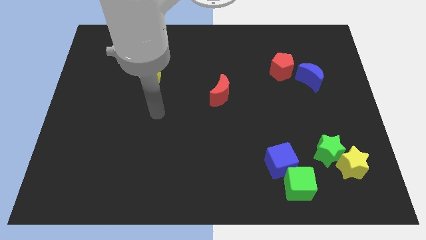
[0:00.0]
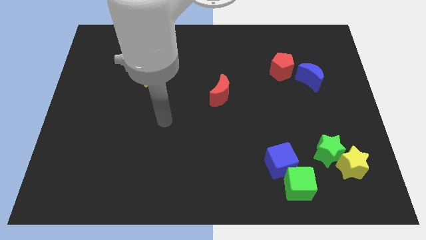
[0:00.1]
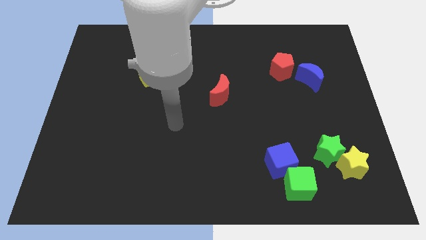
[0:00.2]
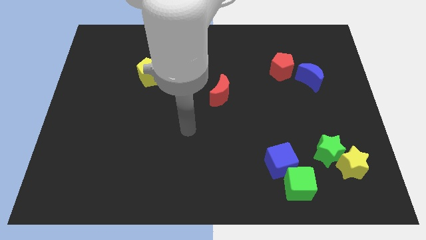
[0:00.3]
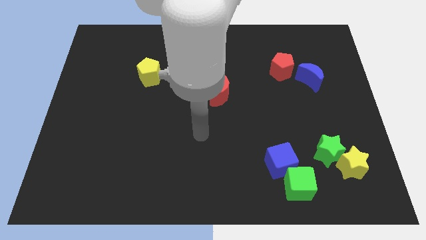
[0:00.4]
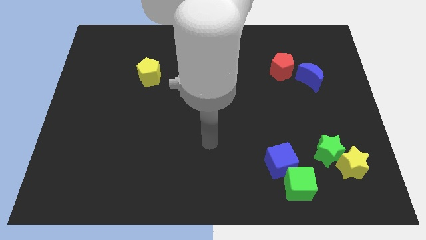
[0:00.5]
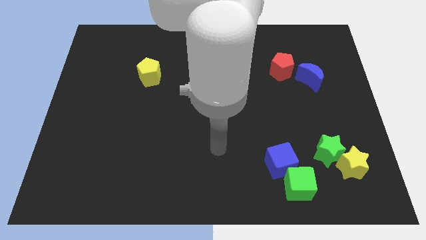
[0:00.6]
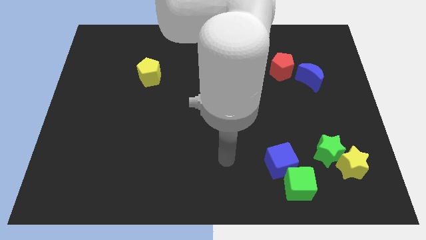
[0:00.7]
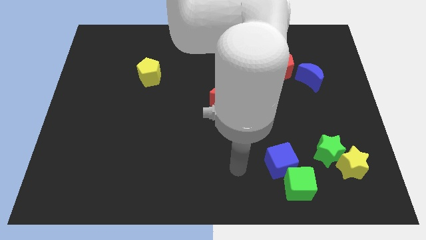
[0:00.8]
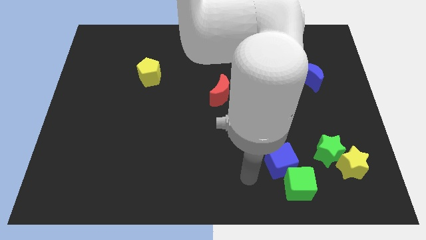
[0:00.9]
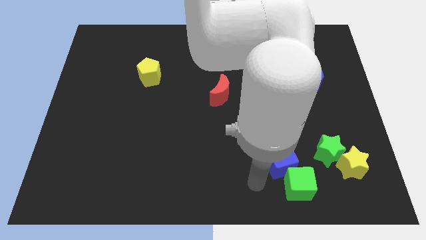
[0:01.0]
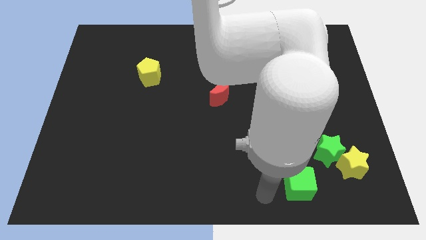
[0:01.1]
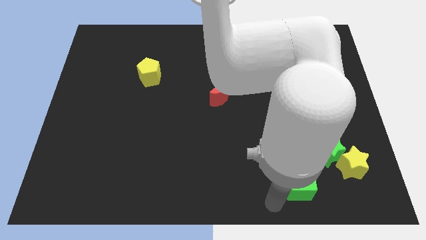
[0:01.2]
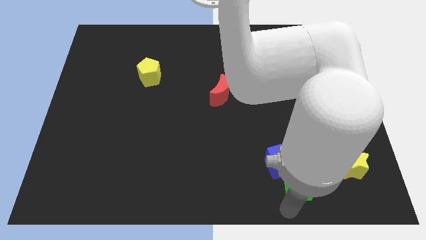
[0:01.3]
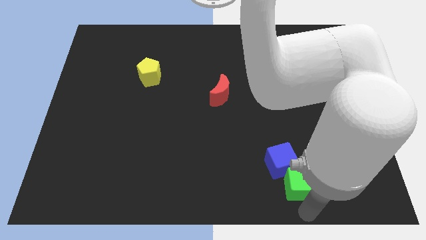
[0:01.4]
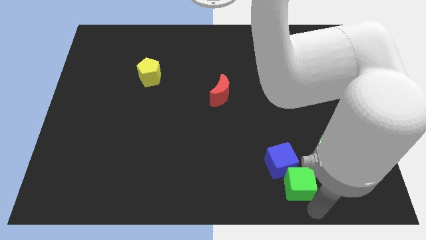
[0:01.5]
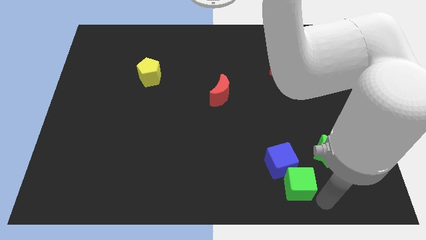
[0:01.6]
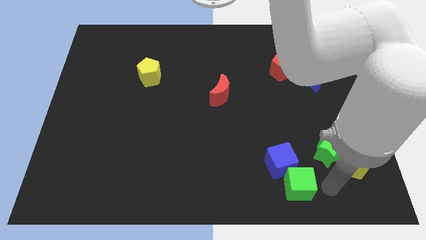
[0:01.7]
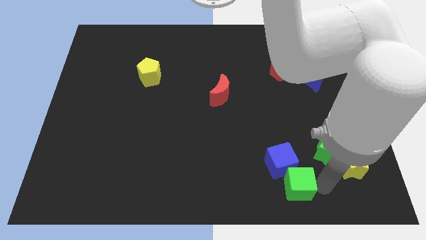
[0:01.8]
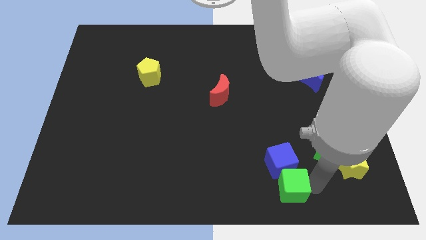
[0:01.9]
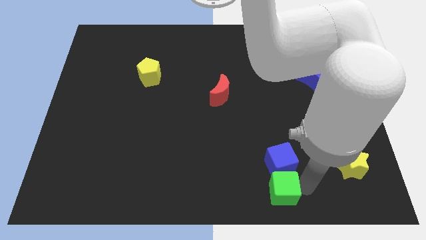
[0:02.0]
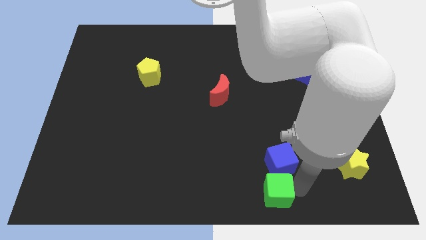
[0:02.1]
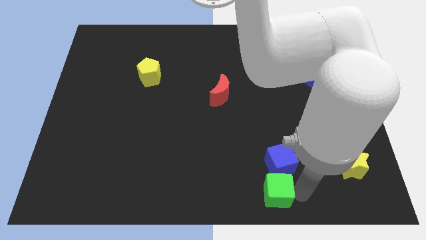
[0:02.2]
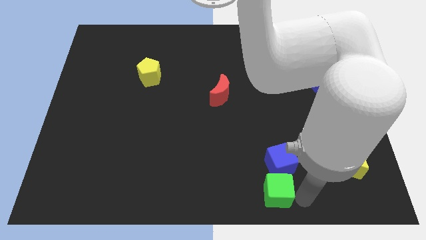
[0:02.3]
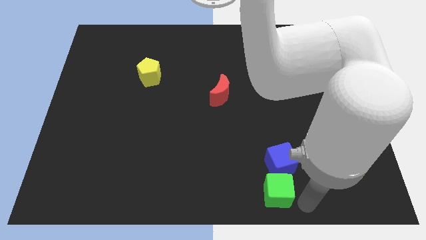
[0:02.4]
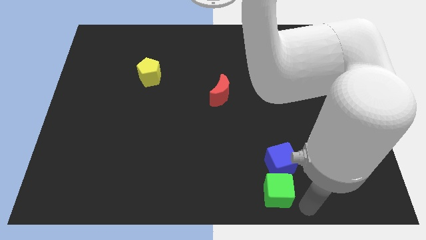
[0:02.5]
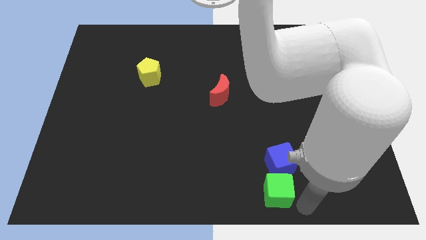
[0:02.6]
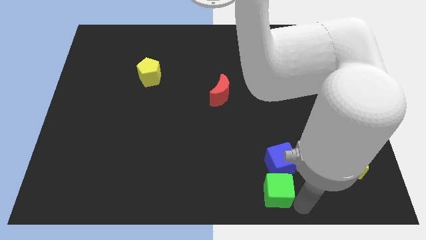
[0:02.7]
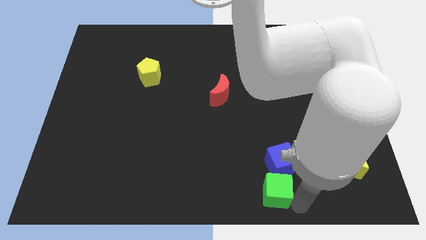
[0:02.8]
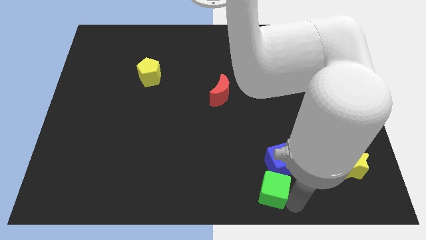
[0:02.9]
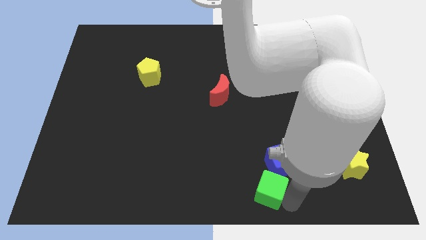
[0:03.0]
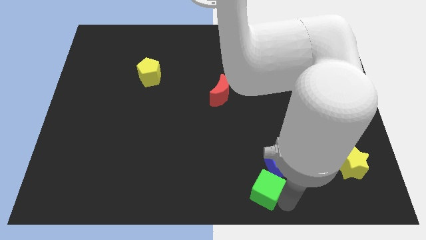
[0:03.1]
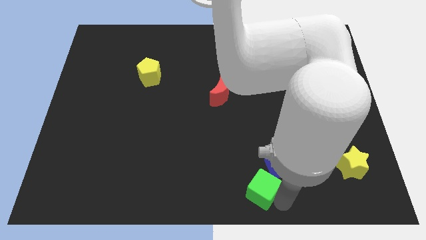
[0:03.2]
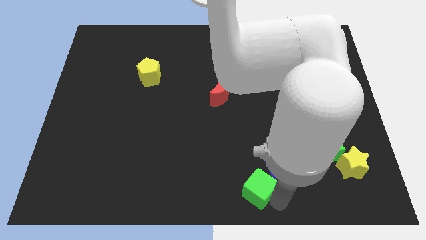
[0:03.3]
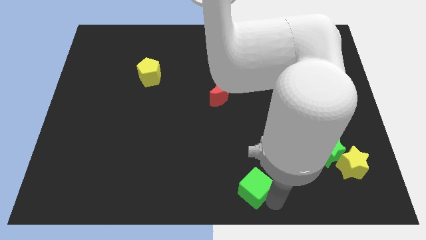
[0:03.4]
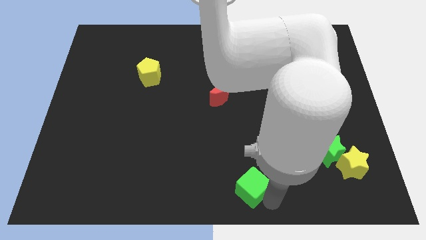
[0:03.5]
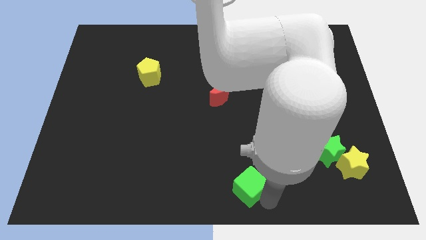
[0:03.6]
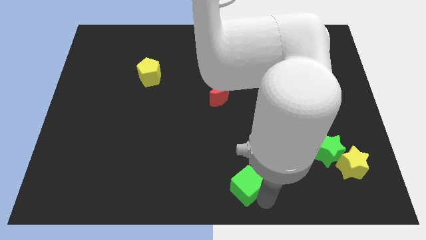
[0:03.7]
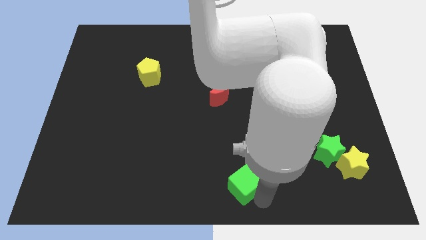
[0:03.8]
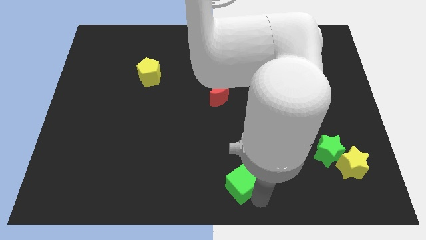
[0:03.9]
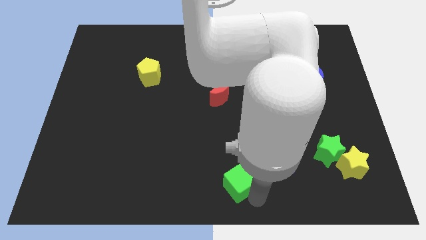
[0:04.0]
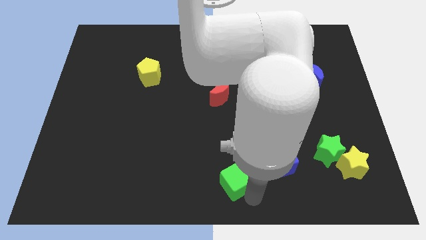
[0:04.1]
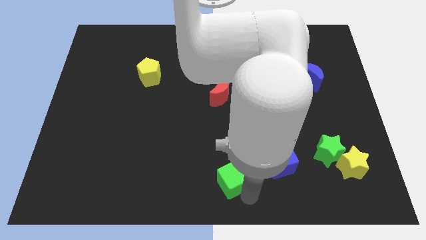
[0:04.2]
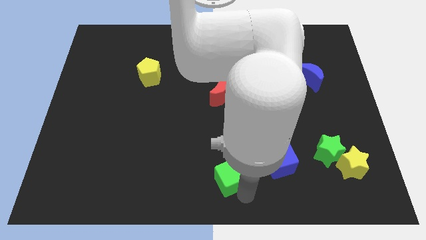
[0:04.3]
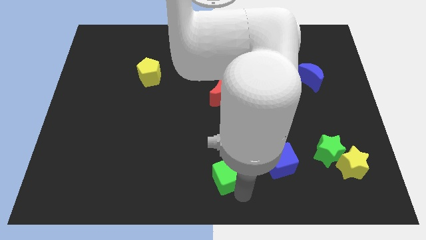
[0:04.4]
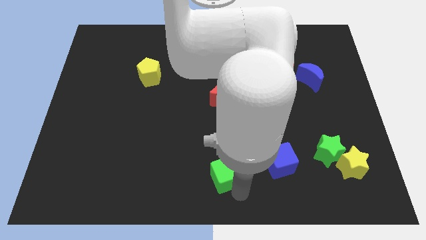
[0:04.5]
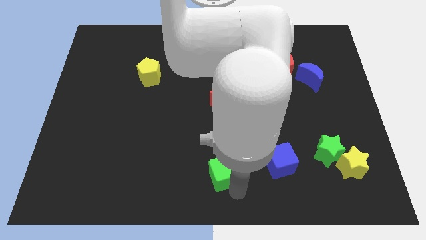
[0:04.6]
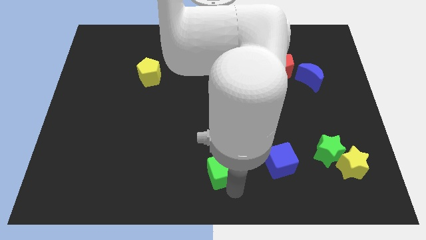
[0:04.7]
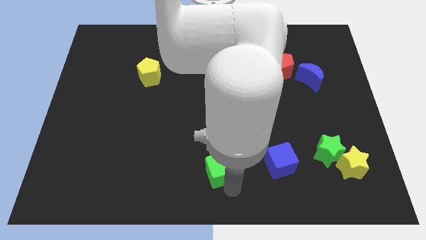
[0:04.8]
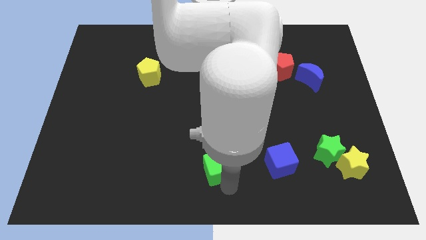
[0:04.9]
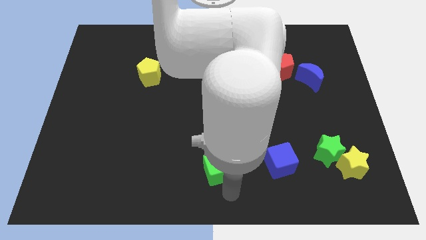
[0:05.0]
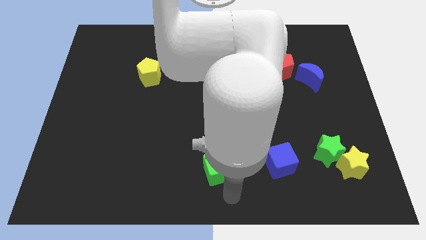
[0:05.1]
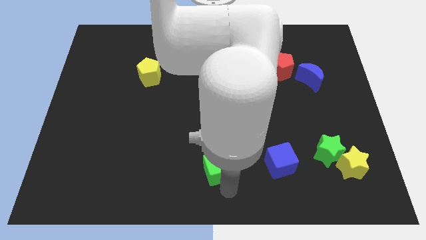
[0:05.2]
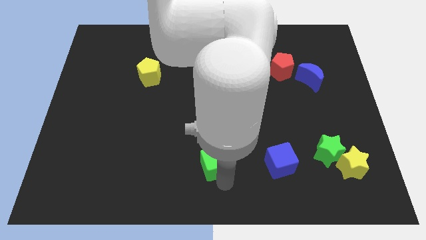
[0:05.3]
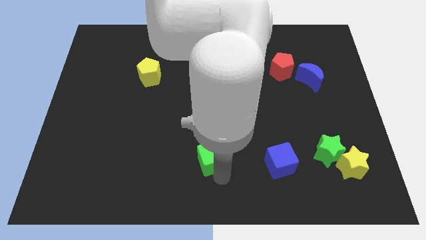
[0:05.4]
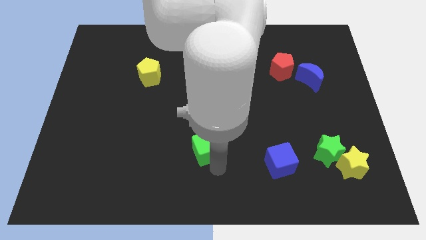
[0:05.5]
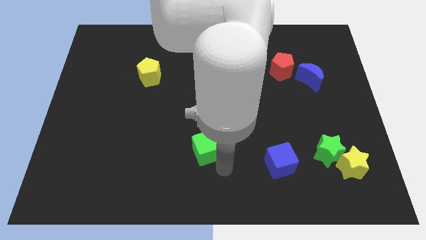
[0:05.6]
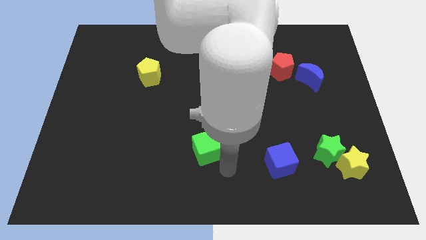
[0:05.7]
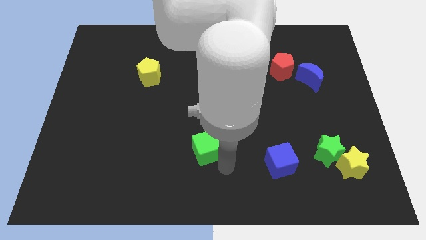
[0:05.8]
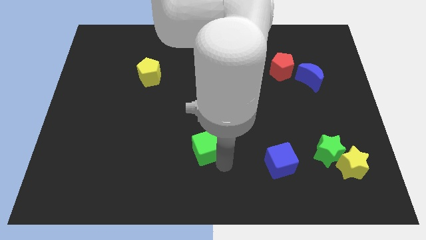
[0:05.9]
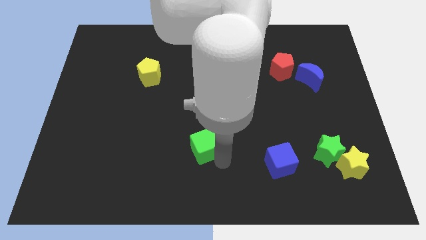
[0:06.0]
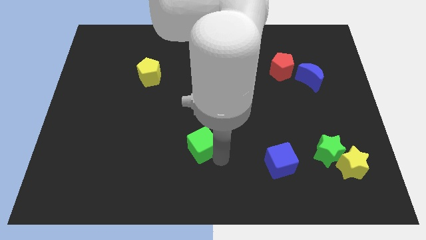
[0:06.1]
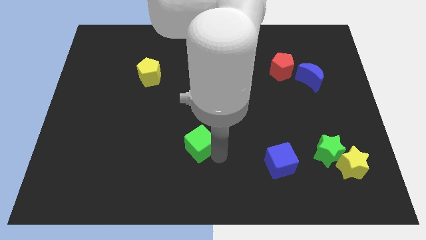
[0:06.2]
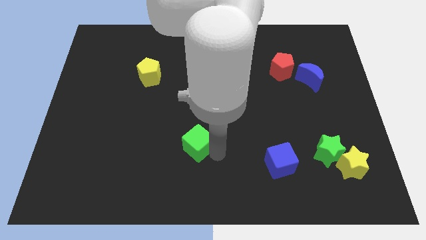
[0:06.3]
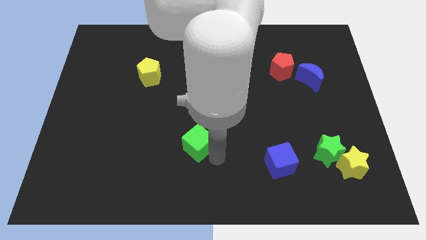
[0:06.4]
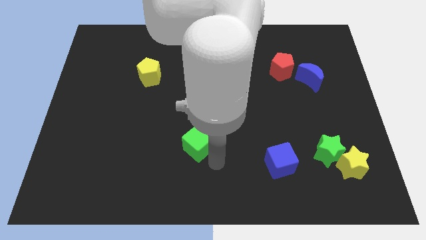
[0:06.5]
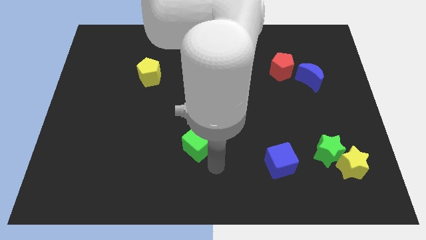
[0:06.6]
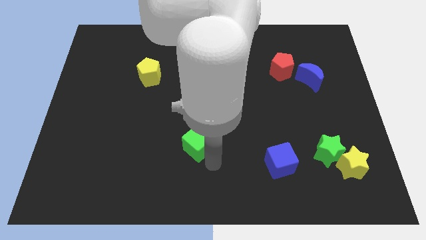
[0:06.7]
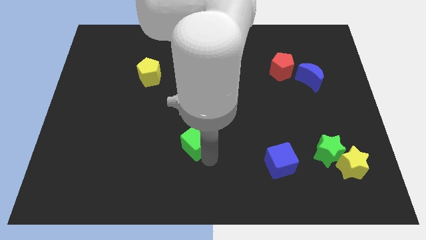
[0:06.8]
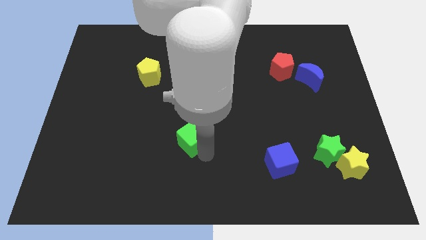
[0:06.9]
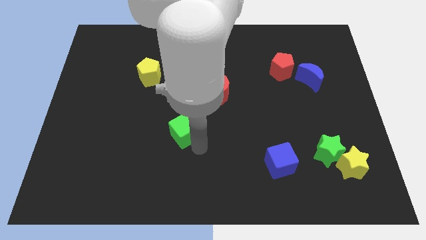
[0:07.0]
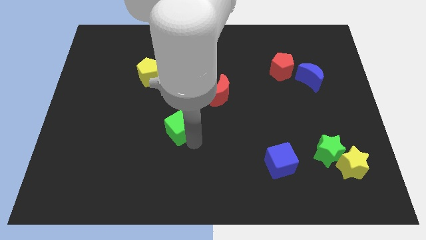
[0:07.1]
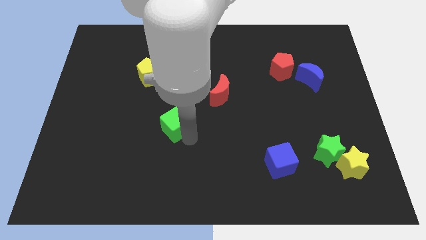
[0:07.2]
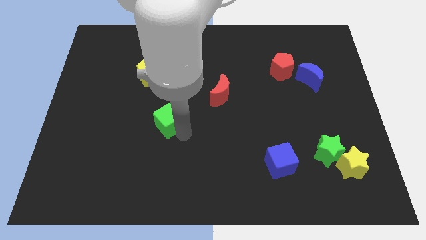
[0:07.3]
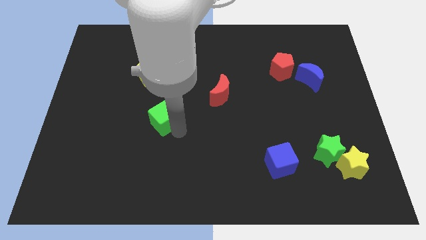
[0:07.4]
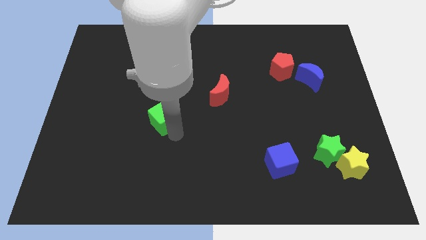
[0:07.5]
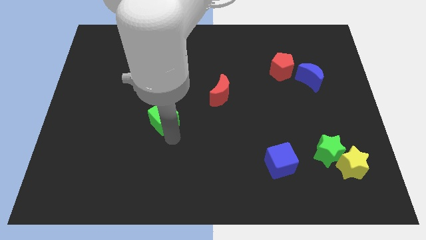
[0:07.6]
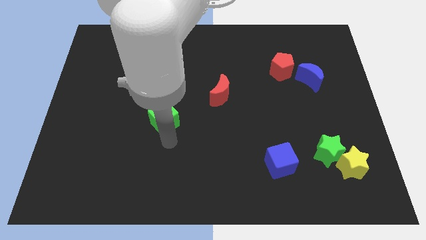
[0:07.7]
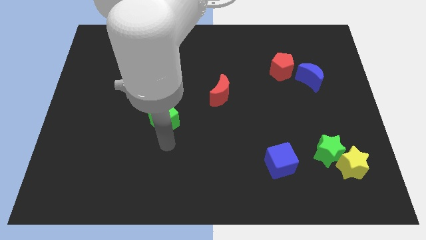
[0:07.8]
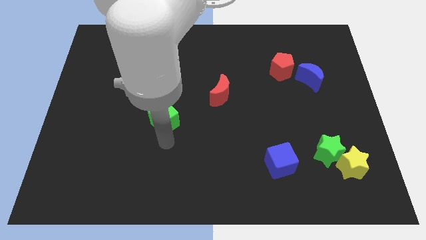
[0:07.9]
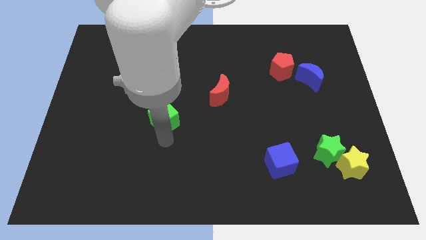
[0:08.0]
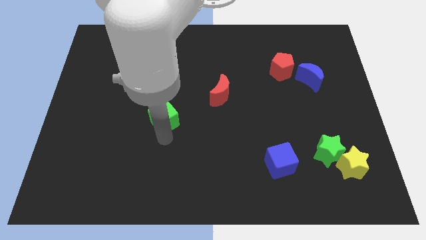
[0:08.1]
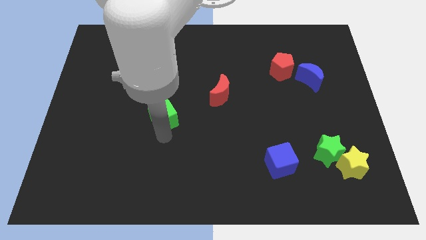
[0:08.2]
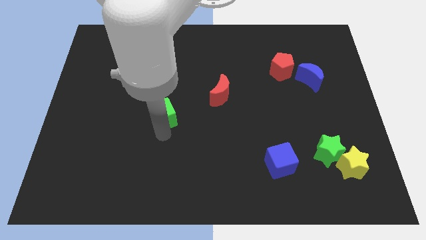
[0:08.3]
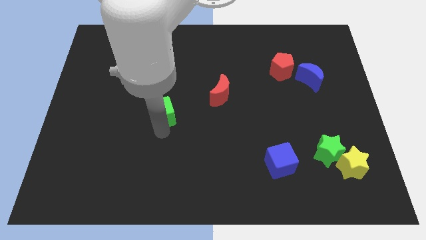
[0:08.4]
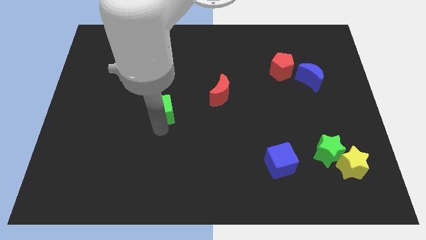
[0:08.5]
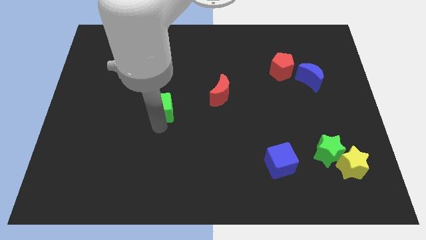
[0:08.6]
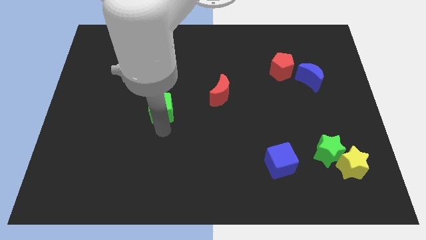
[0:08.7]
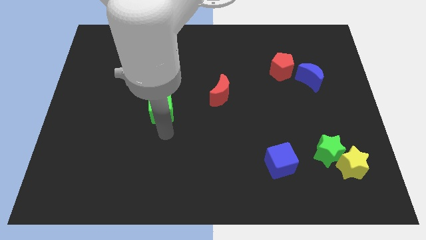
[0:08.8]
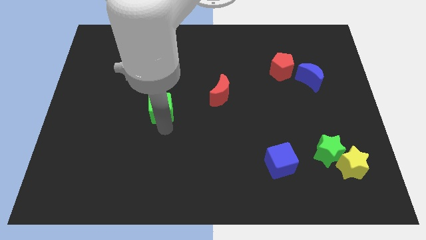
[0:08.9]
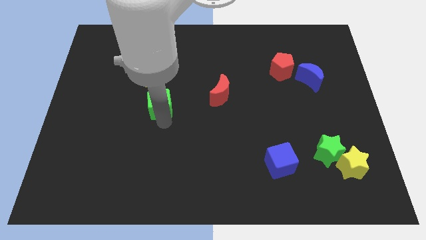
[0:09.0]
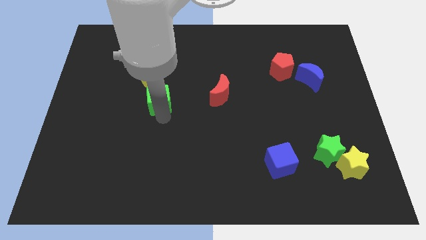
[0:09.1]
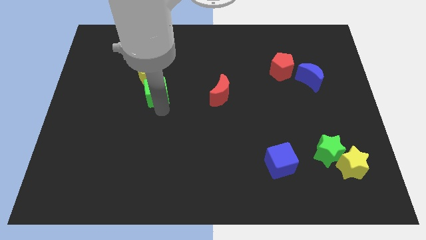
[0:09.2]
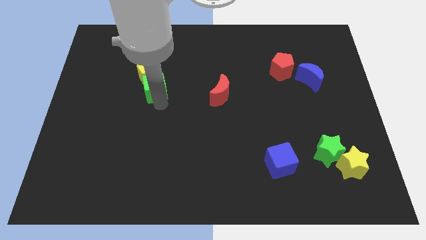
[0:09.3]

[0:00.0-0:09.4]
put the green cube close to the yellow pentagon
